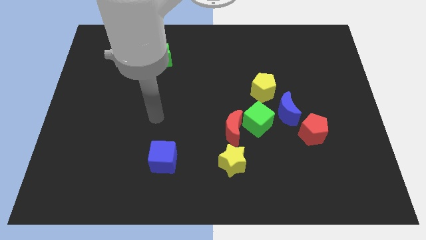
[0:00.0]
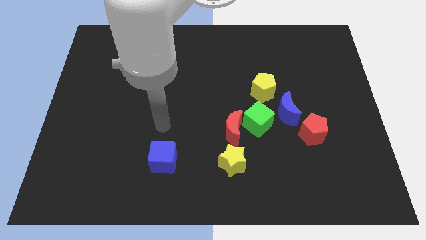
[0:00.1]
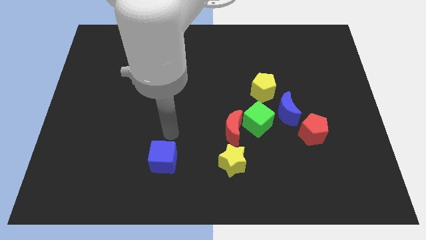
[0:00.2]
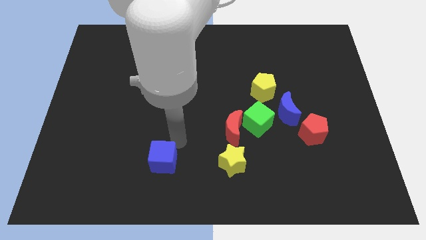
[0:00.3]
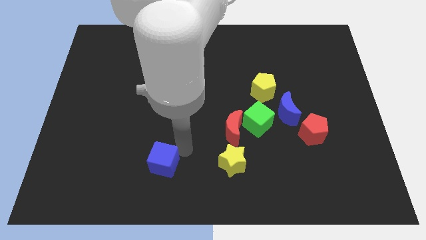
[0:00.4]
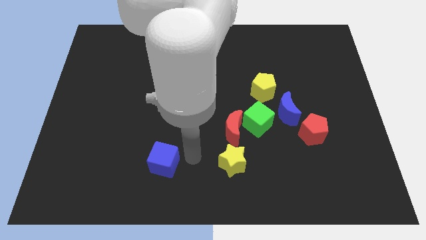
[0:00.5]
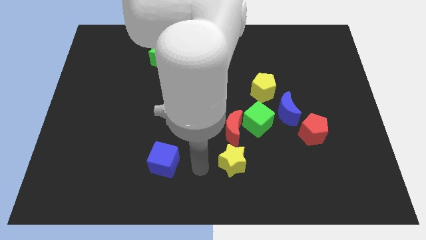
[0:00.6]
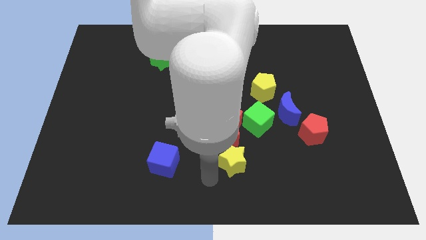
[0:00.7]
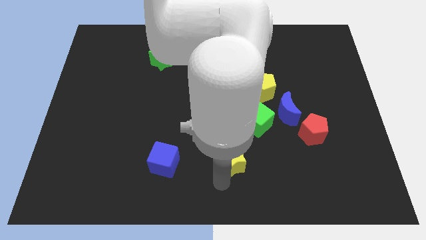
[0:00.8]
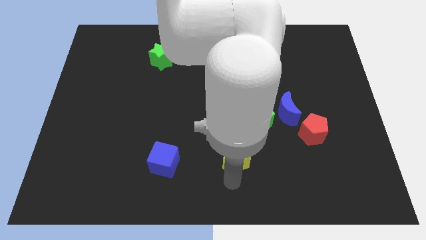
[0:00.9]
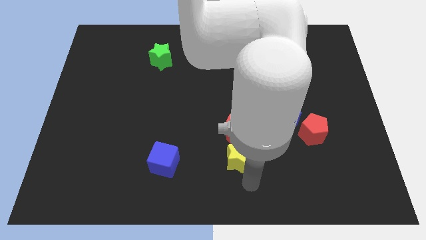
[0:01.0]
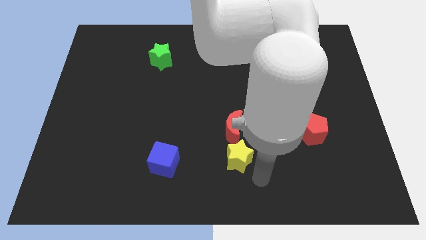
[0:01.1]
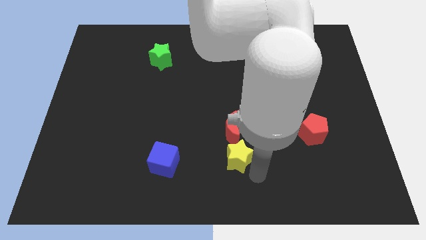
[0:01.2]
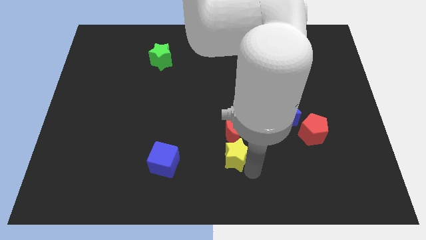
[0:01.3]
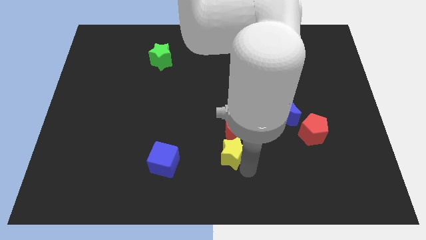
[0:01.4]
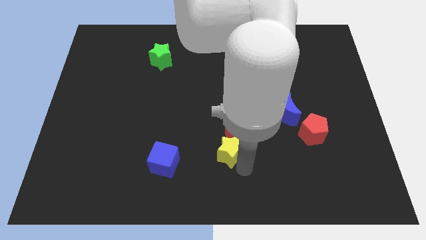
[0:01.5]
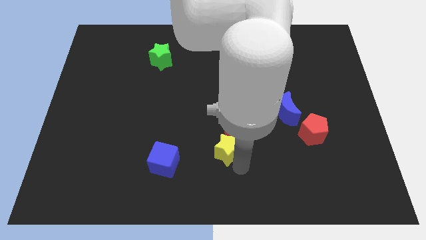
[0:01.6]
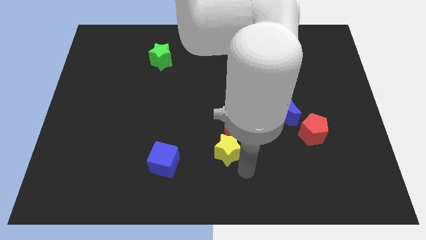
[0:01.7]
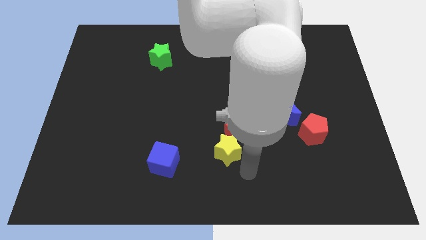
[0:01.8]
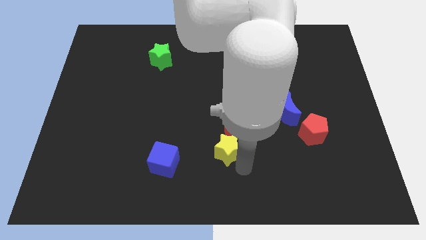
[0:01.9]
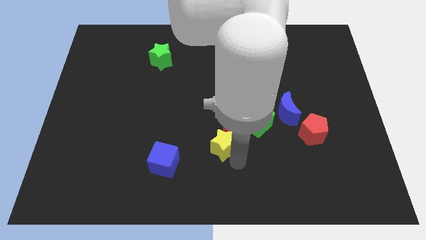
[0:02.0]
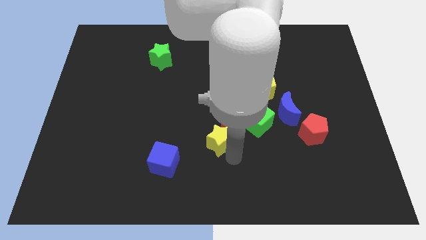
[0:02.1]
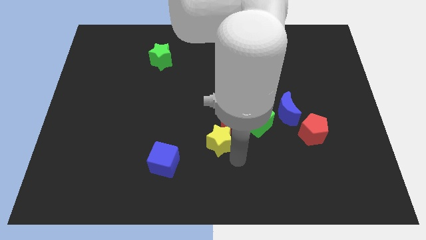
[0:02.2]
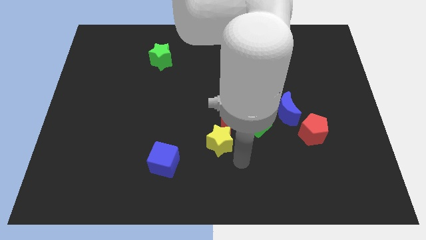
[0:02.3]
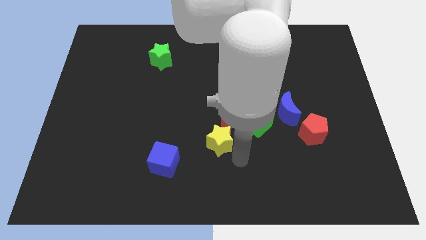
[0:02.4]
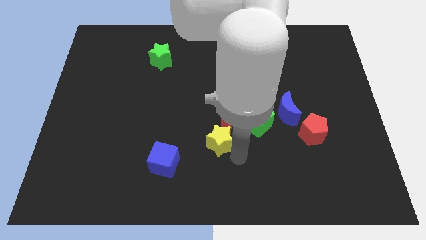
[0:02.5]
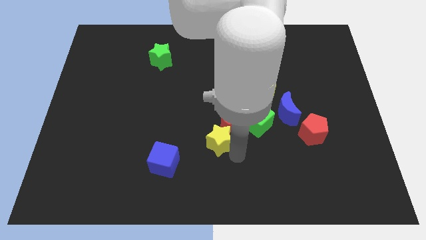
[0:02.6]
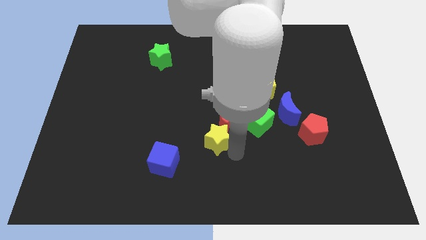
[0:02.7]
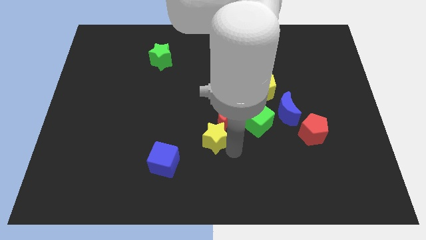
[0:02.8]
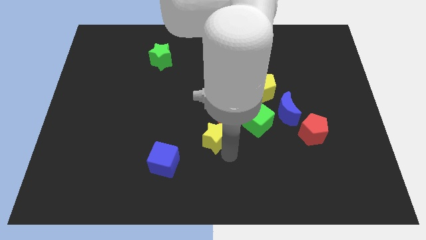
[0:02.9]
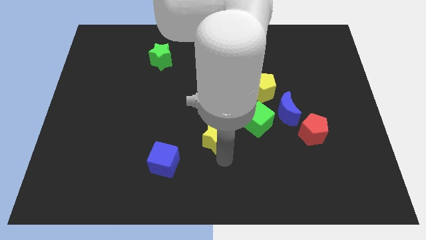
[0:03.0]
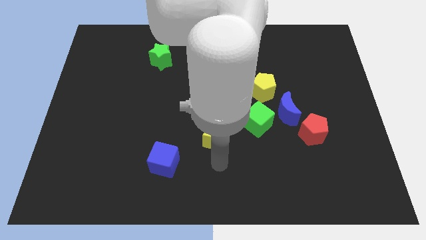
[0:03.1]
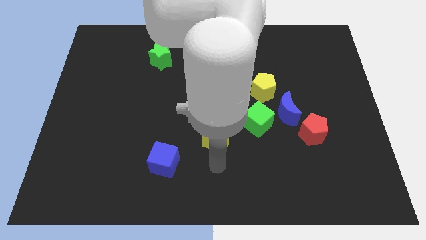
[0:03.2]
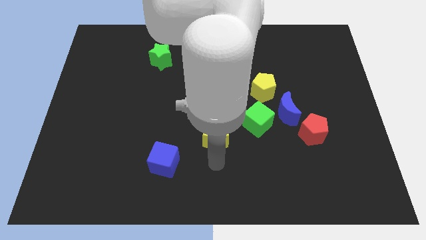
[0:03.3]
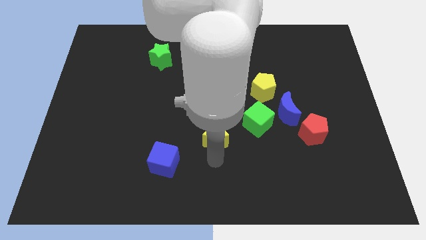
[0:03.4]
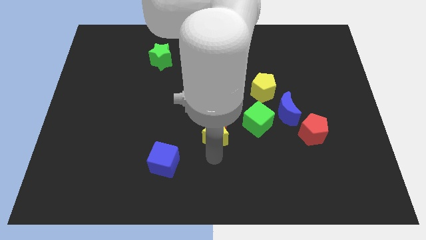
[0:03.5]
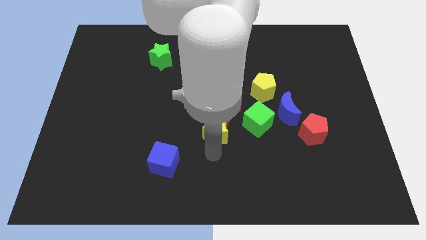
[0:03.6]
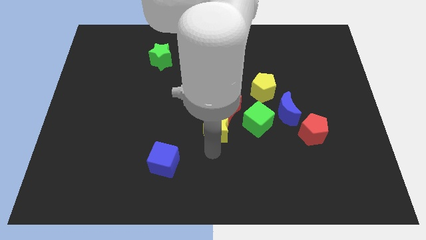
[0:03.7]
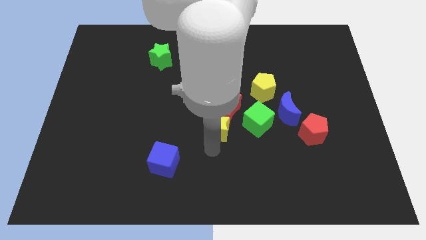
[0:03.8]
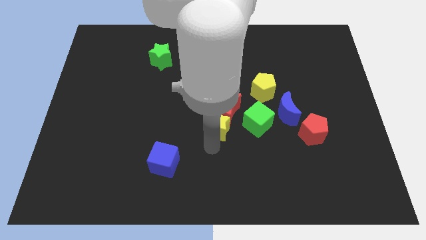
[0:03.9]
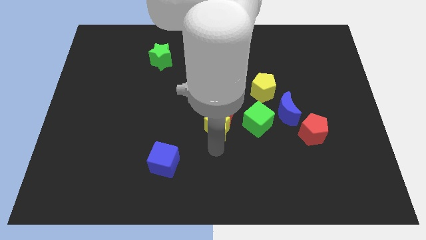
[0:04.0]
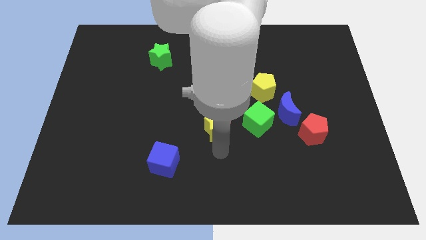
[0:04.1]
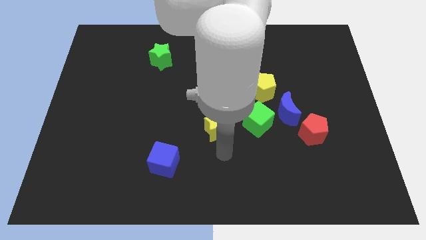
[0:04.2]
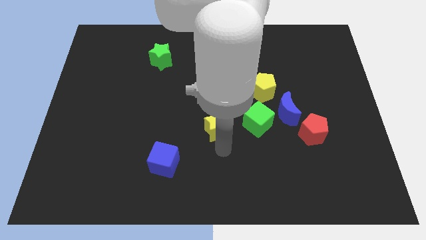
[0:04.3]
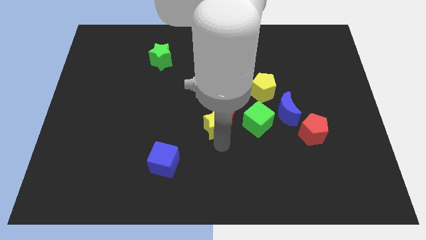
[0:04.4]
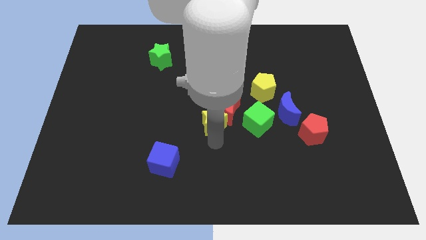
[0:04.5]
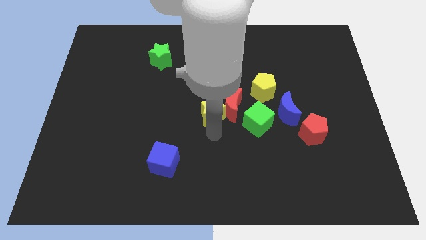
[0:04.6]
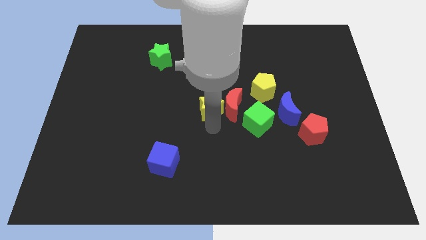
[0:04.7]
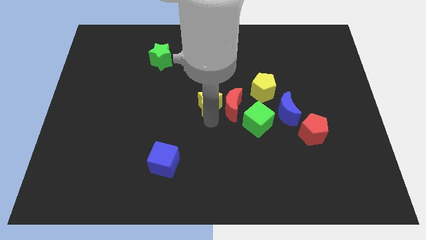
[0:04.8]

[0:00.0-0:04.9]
put the yellow star just left of the yellow pentagon

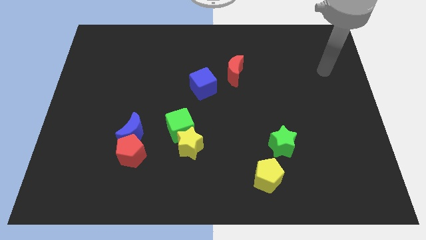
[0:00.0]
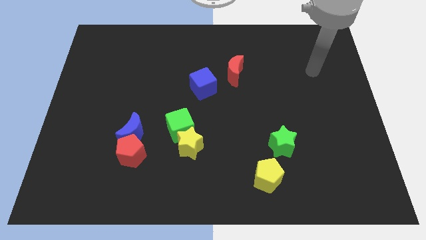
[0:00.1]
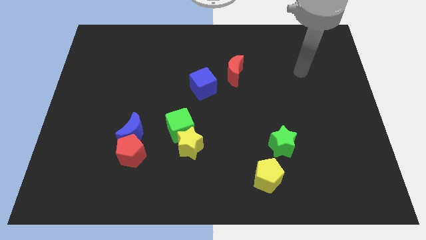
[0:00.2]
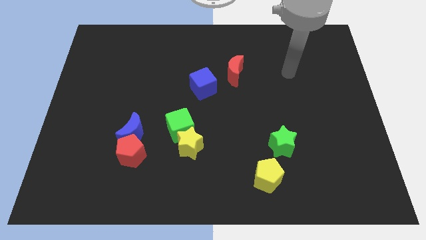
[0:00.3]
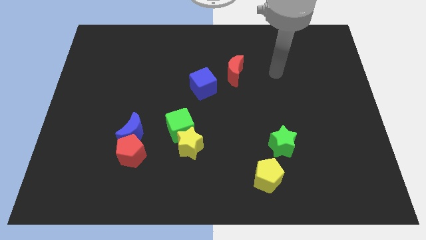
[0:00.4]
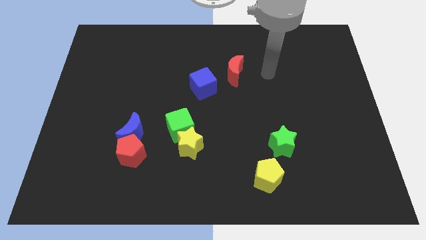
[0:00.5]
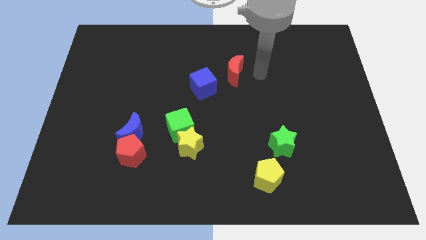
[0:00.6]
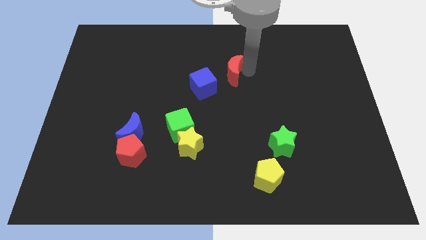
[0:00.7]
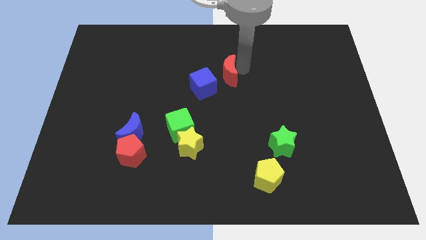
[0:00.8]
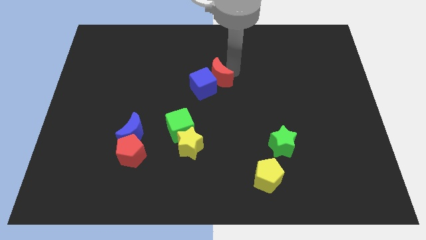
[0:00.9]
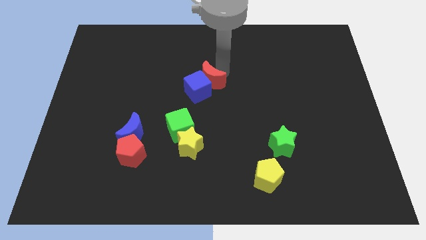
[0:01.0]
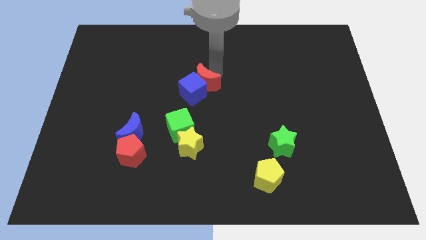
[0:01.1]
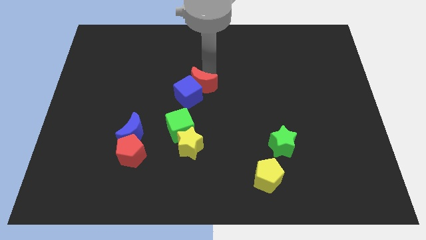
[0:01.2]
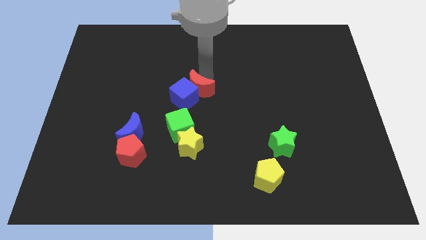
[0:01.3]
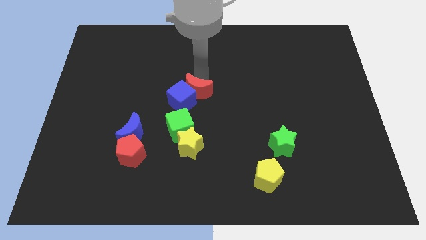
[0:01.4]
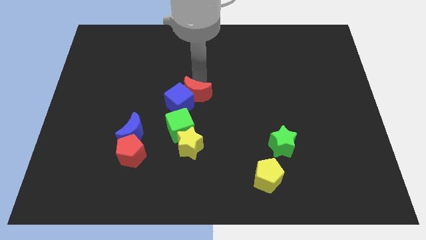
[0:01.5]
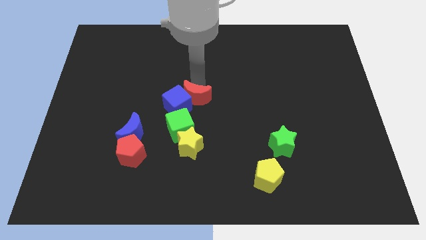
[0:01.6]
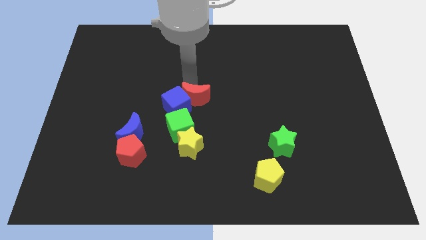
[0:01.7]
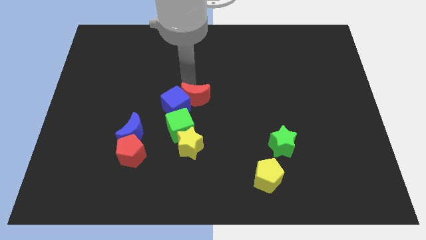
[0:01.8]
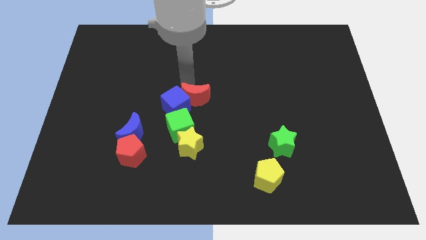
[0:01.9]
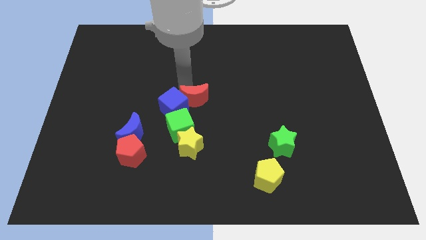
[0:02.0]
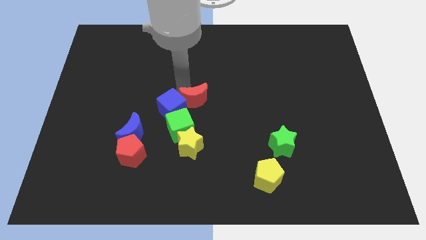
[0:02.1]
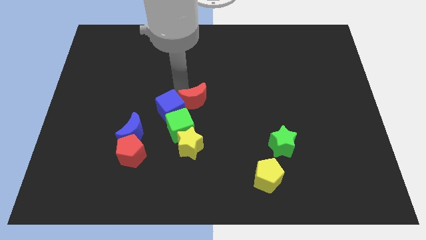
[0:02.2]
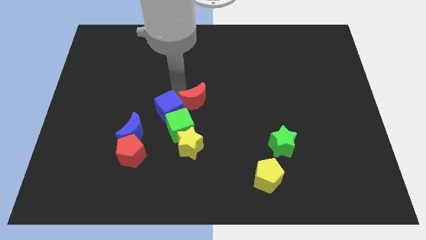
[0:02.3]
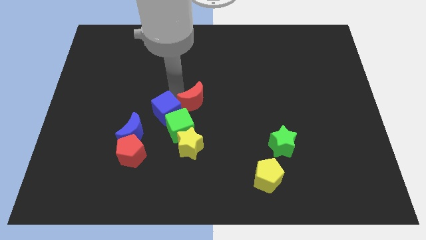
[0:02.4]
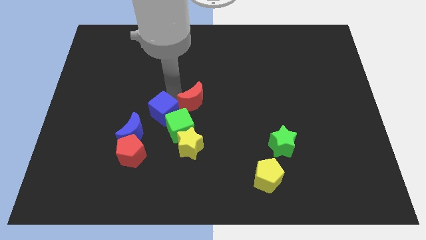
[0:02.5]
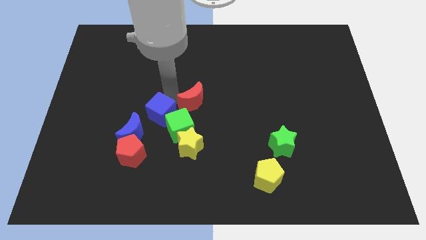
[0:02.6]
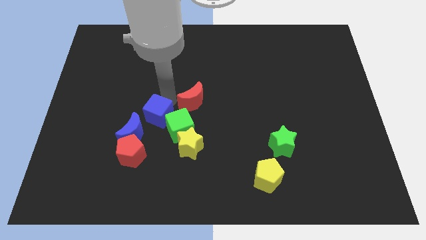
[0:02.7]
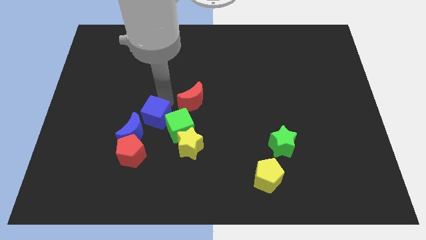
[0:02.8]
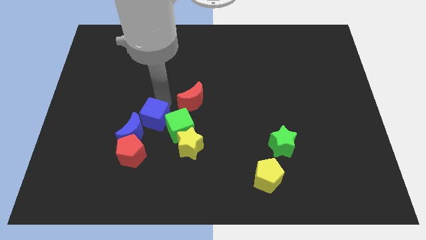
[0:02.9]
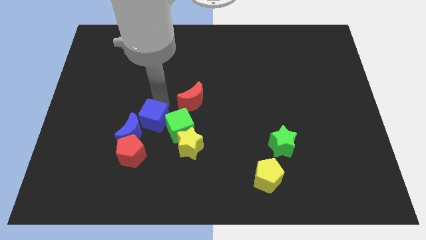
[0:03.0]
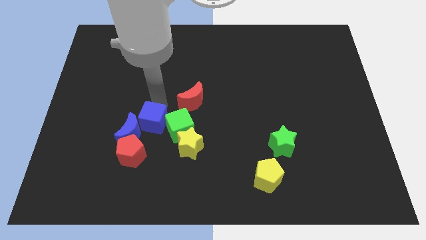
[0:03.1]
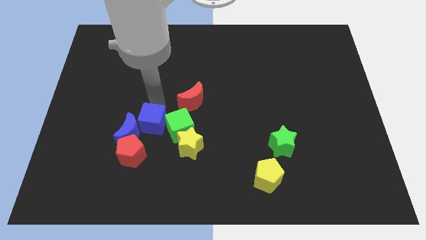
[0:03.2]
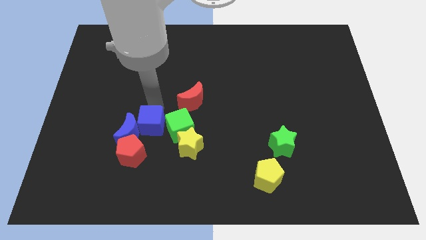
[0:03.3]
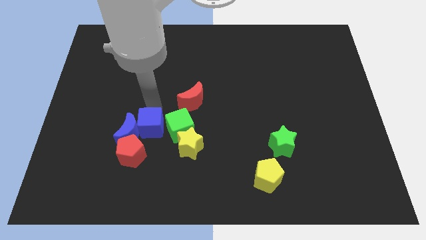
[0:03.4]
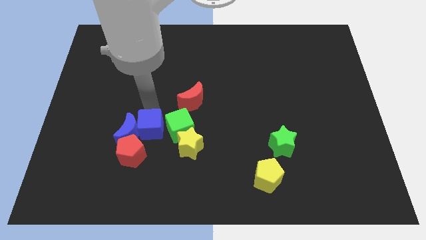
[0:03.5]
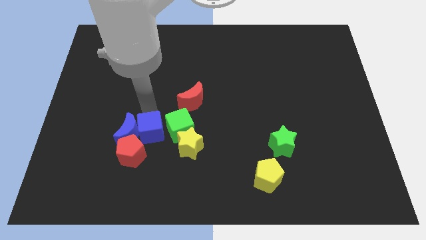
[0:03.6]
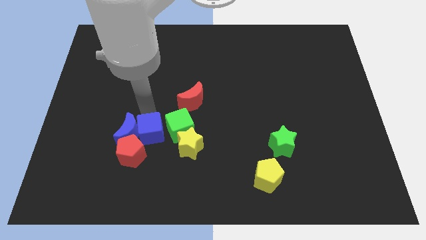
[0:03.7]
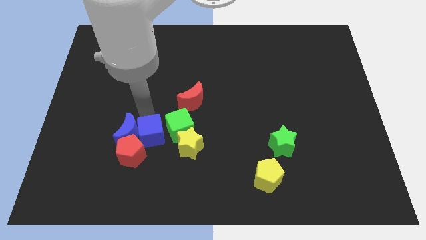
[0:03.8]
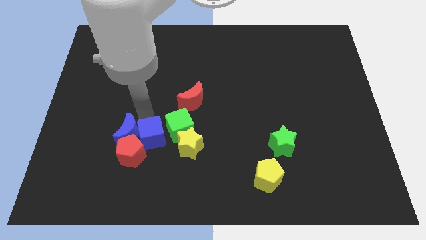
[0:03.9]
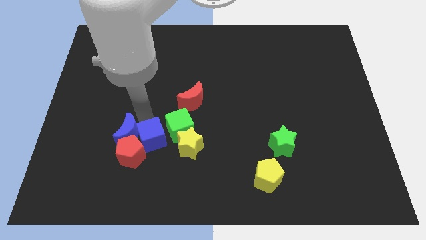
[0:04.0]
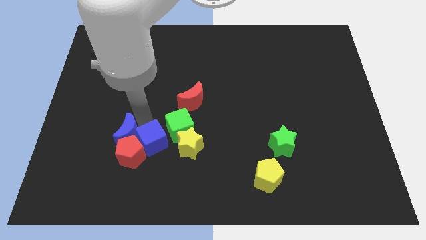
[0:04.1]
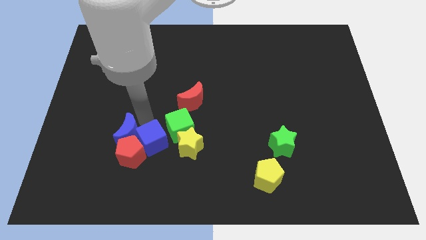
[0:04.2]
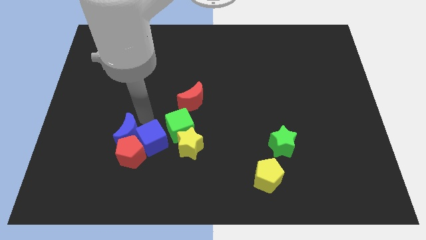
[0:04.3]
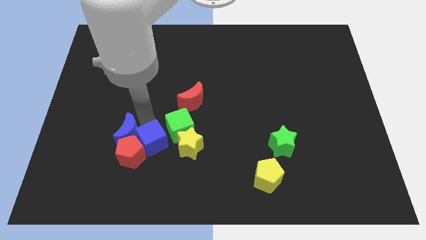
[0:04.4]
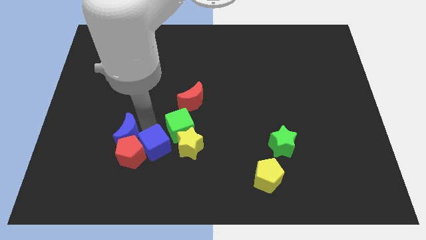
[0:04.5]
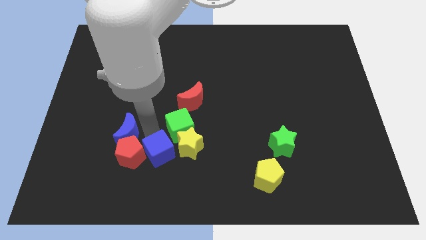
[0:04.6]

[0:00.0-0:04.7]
put the blue cube diagonally down and to the left of the yellow star
